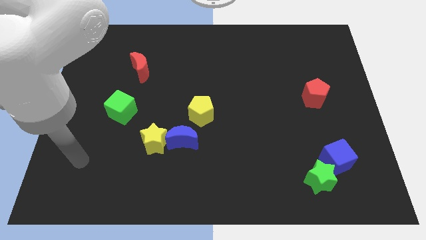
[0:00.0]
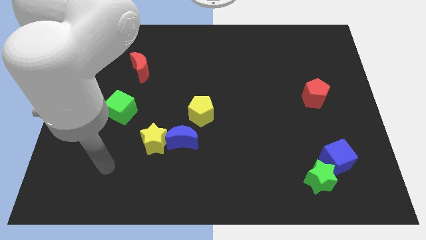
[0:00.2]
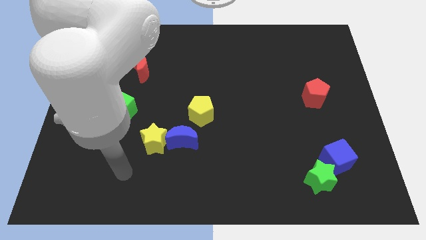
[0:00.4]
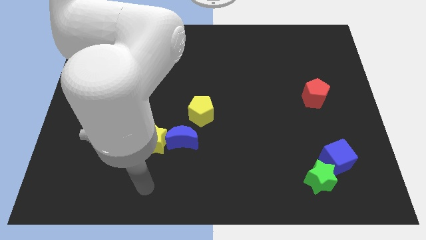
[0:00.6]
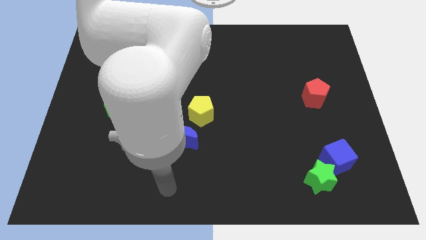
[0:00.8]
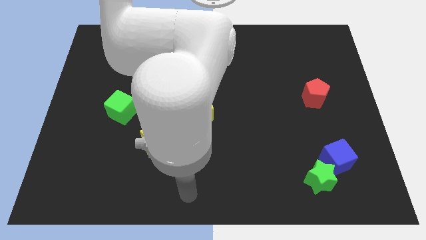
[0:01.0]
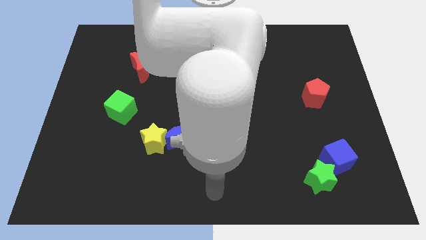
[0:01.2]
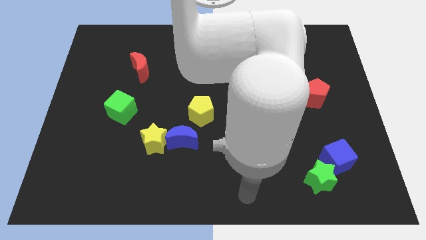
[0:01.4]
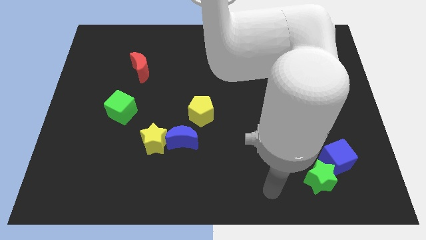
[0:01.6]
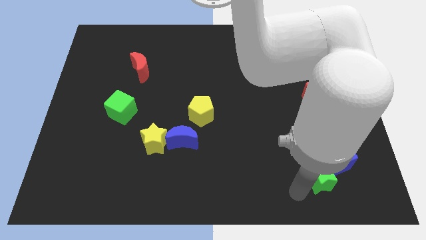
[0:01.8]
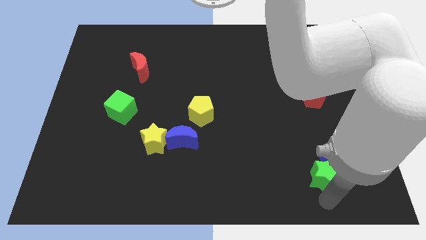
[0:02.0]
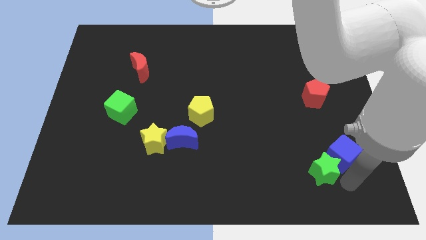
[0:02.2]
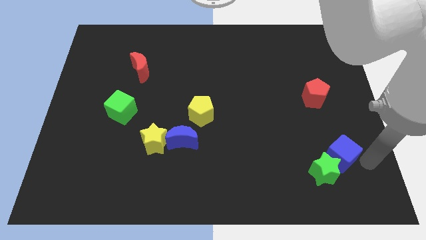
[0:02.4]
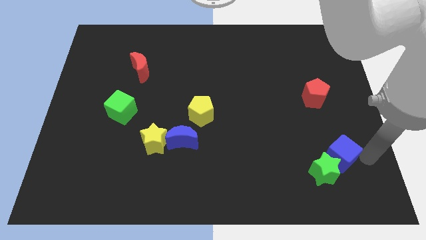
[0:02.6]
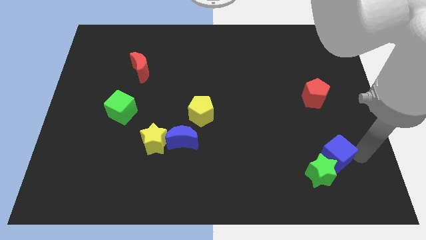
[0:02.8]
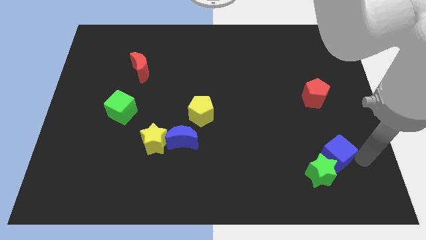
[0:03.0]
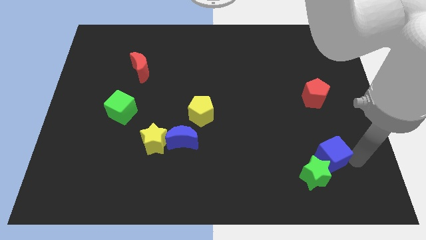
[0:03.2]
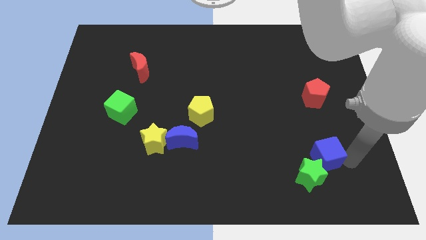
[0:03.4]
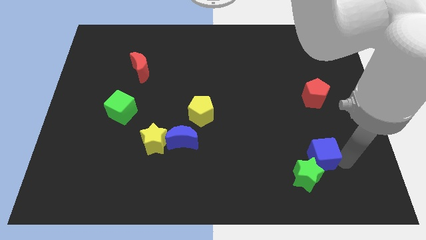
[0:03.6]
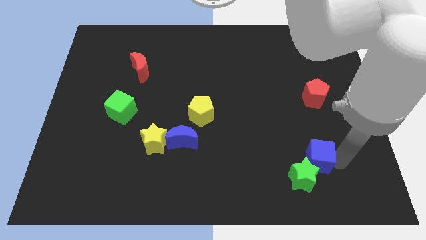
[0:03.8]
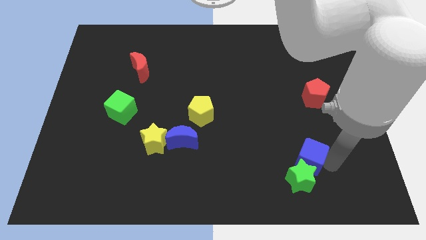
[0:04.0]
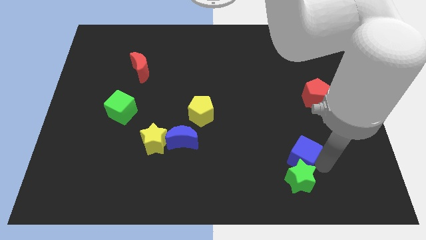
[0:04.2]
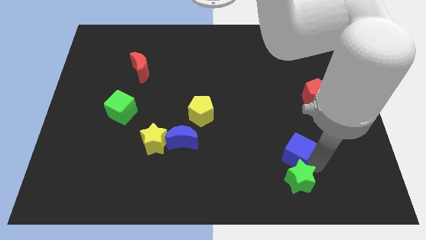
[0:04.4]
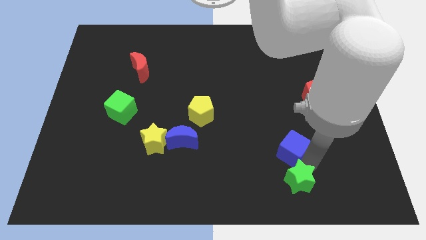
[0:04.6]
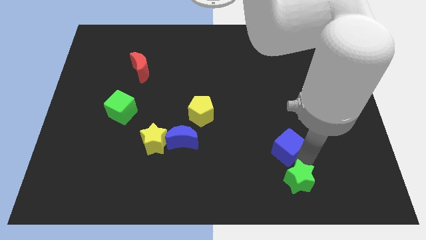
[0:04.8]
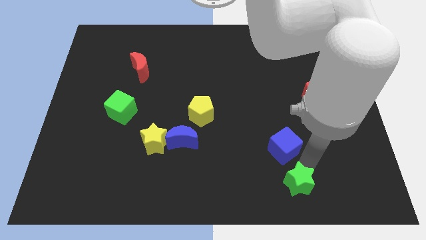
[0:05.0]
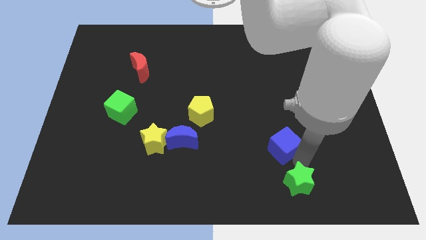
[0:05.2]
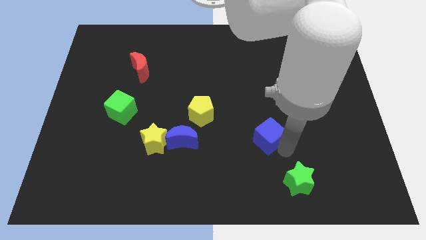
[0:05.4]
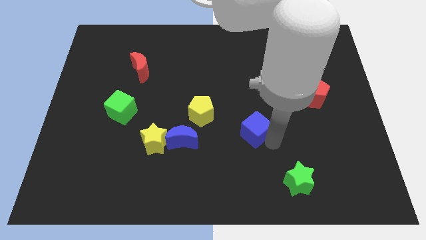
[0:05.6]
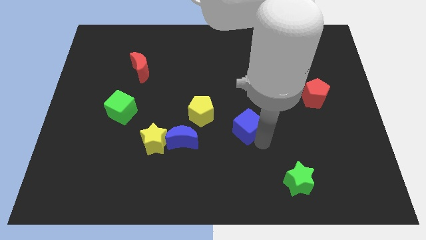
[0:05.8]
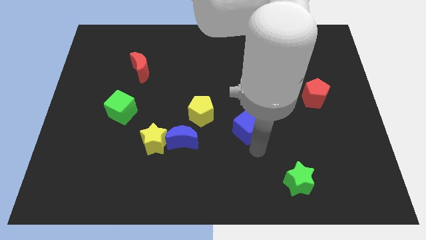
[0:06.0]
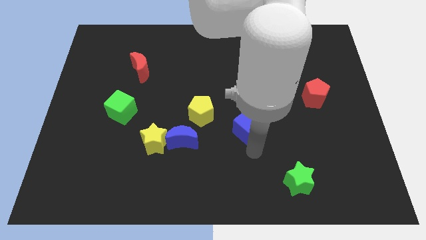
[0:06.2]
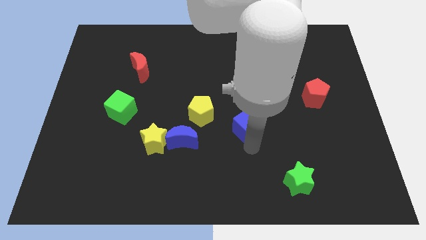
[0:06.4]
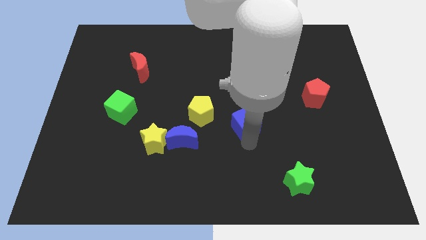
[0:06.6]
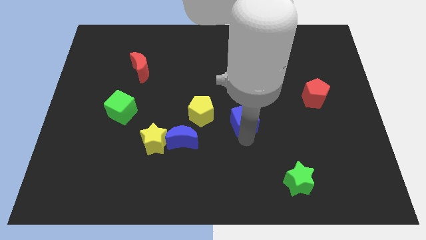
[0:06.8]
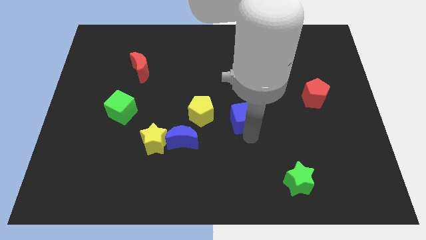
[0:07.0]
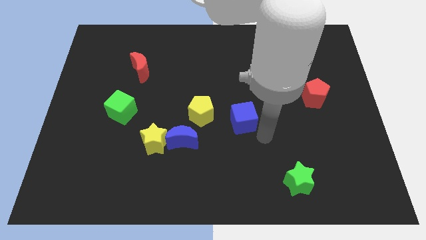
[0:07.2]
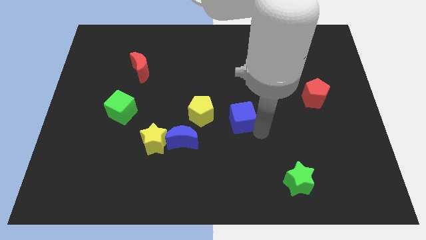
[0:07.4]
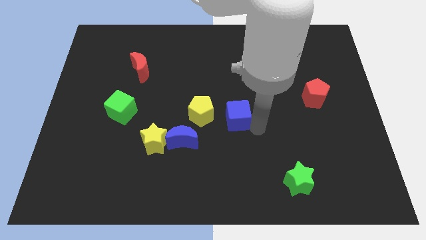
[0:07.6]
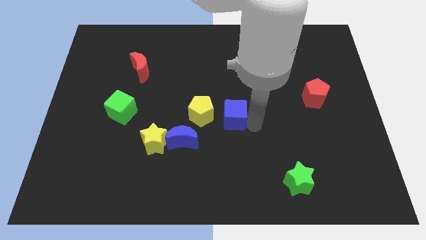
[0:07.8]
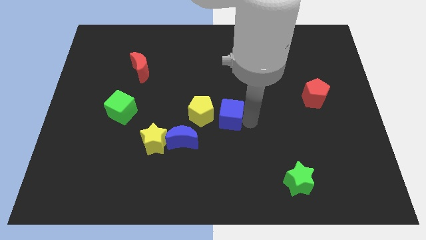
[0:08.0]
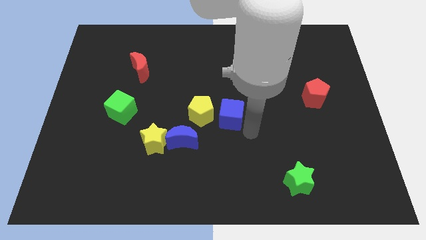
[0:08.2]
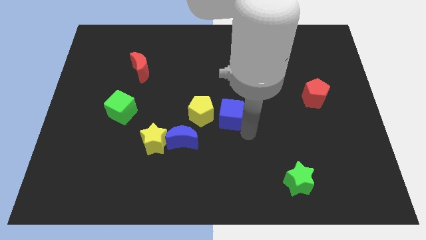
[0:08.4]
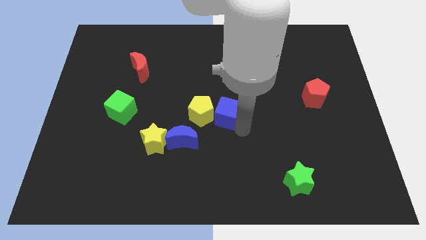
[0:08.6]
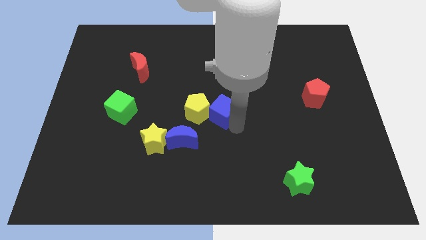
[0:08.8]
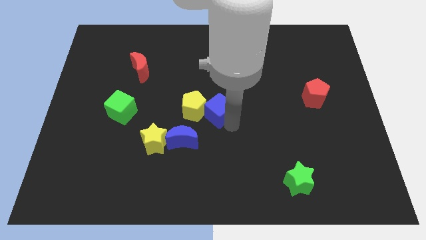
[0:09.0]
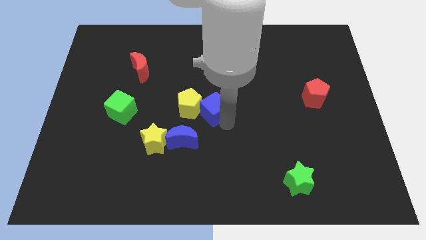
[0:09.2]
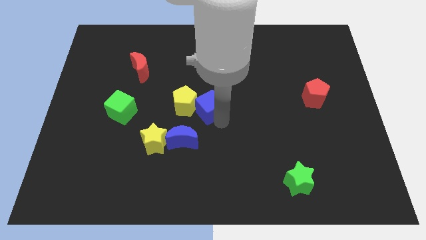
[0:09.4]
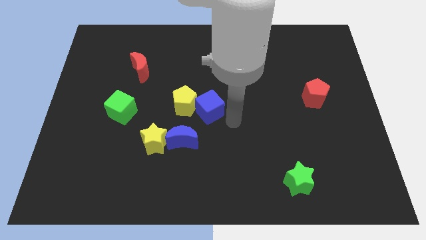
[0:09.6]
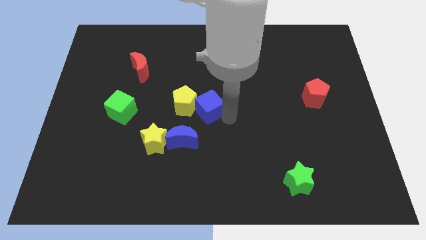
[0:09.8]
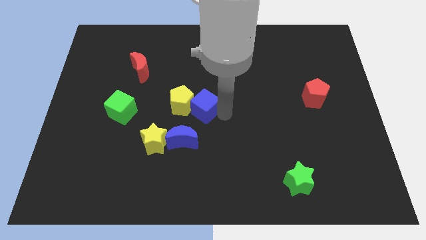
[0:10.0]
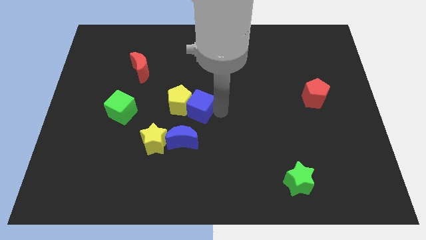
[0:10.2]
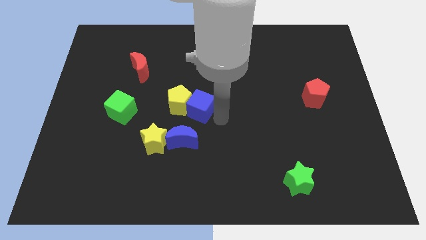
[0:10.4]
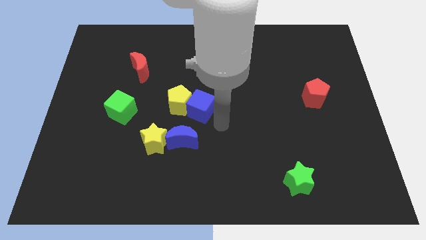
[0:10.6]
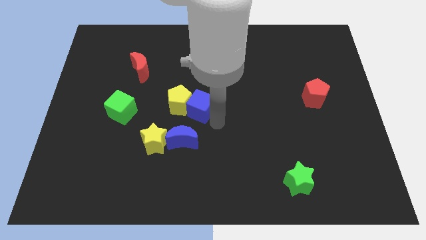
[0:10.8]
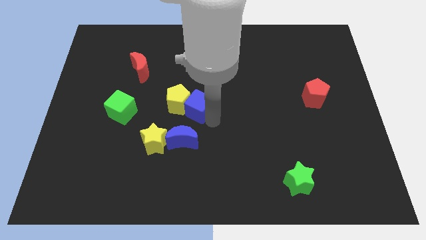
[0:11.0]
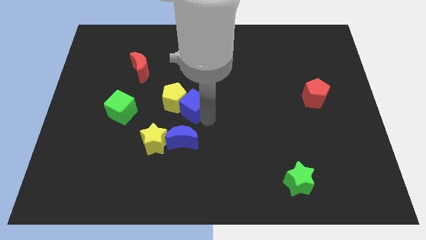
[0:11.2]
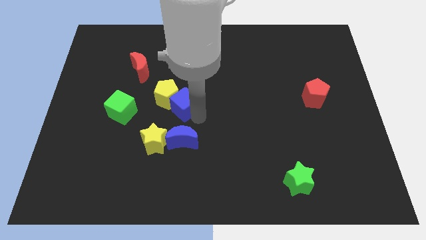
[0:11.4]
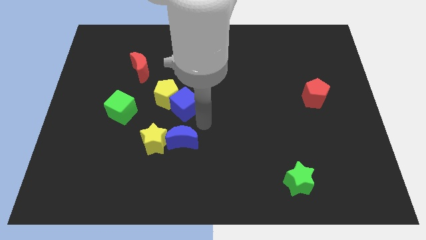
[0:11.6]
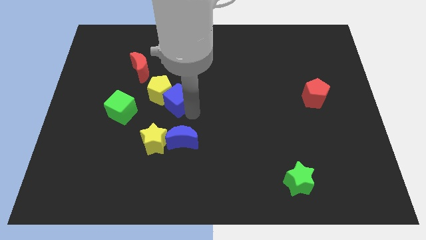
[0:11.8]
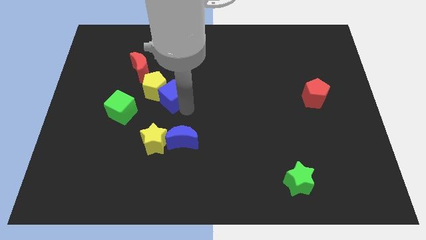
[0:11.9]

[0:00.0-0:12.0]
push the blue cube to the bottom right of the red moon

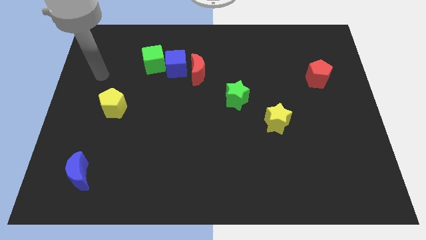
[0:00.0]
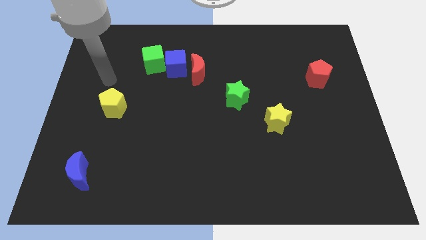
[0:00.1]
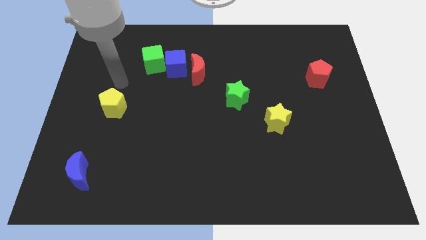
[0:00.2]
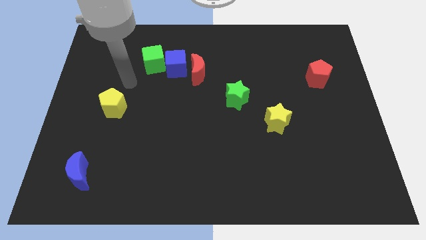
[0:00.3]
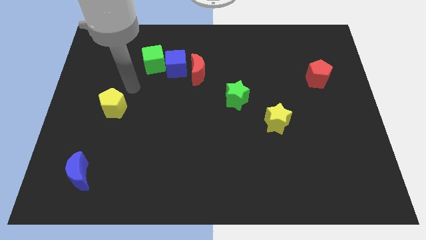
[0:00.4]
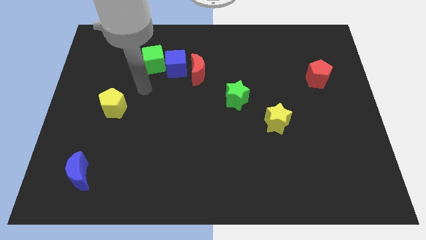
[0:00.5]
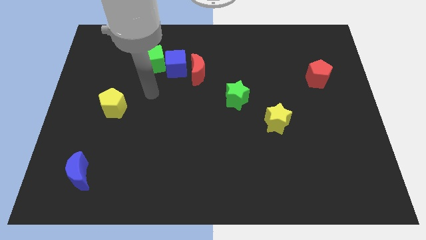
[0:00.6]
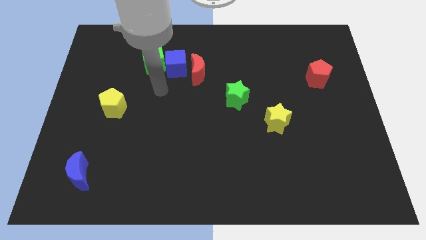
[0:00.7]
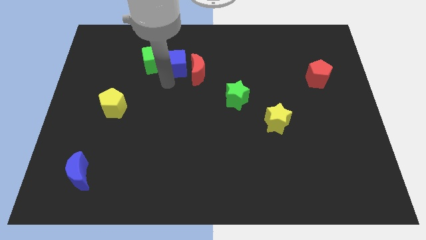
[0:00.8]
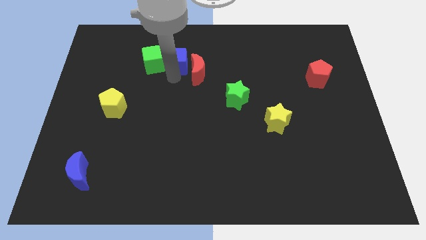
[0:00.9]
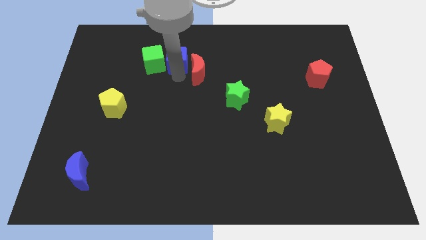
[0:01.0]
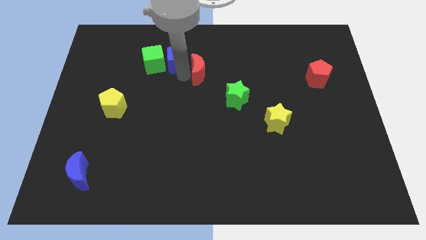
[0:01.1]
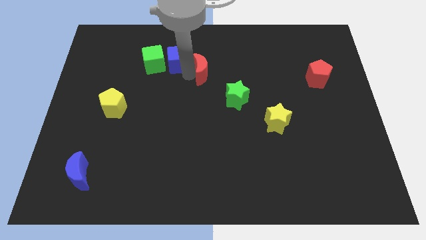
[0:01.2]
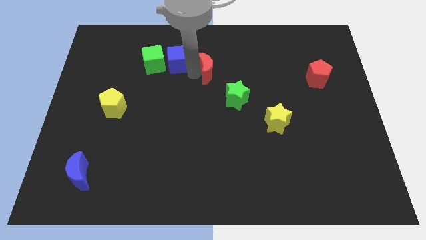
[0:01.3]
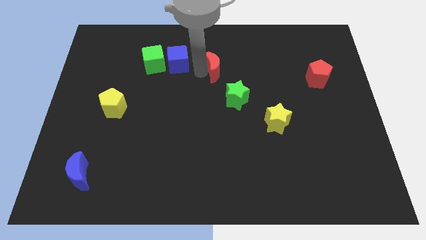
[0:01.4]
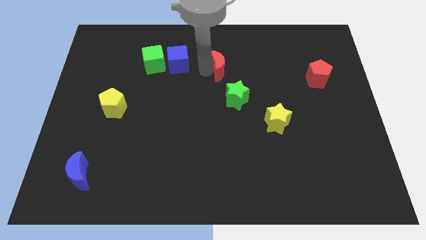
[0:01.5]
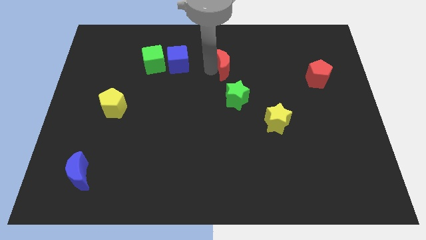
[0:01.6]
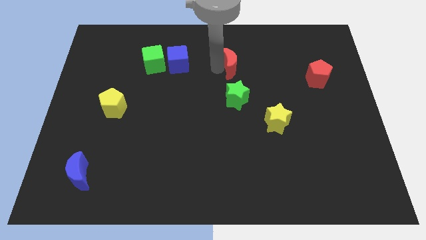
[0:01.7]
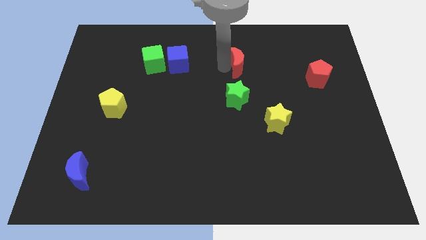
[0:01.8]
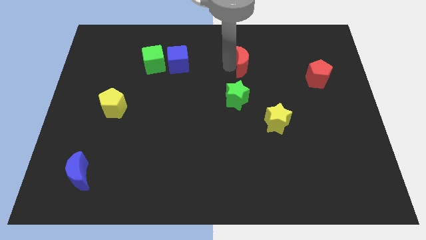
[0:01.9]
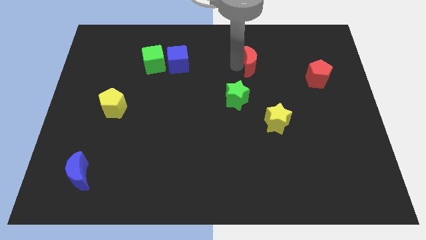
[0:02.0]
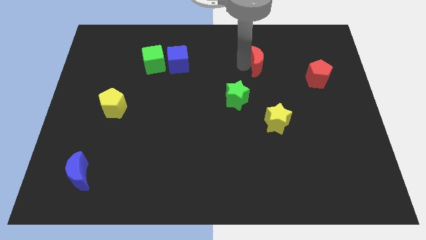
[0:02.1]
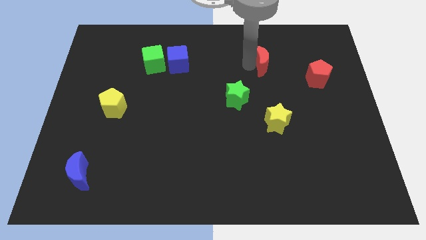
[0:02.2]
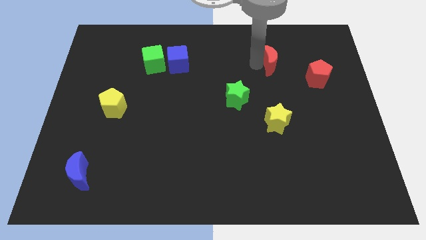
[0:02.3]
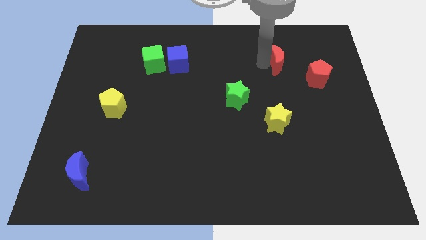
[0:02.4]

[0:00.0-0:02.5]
push the red moon to the top left side of the red pentagon
